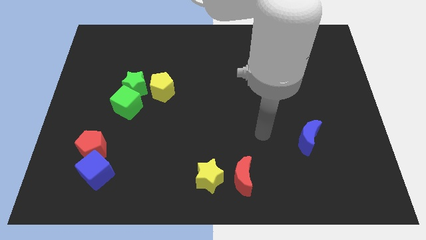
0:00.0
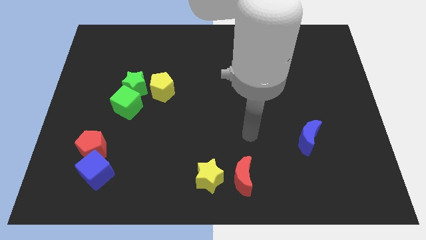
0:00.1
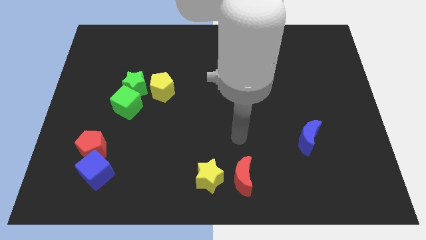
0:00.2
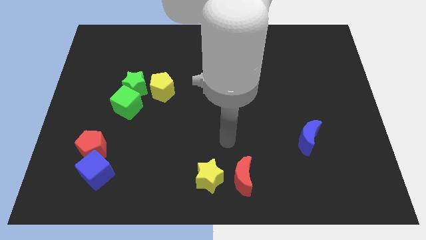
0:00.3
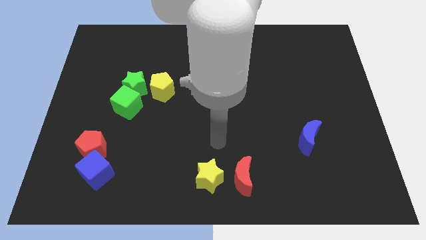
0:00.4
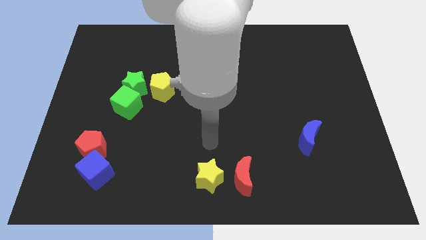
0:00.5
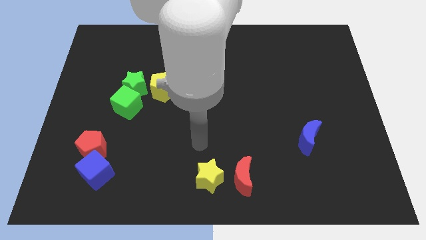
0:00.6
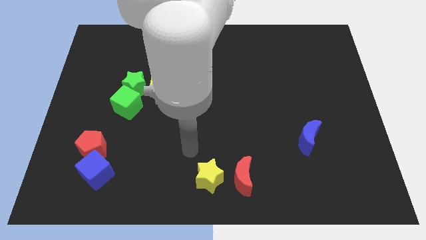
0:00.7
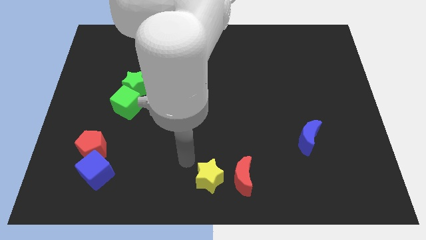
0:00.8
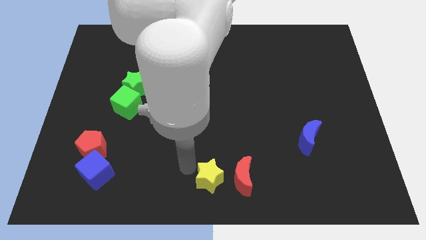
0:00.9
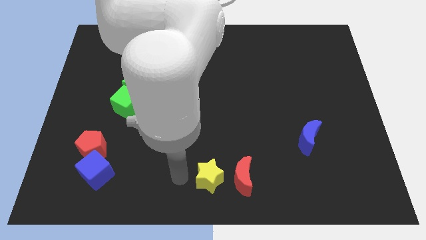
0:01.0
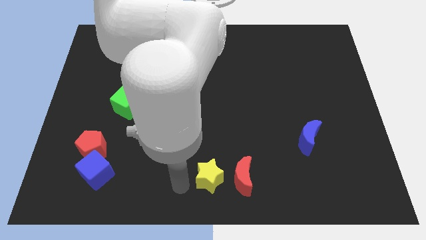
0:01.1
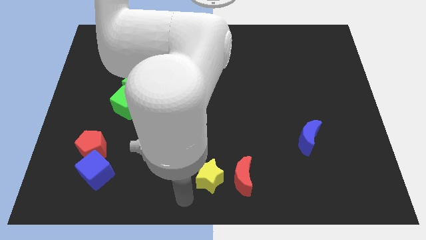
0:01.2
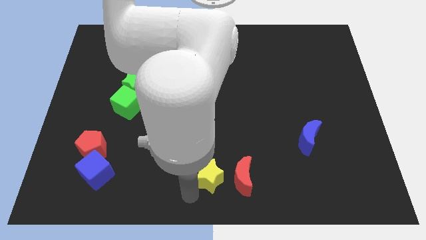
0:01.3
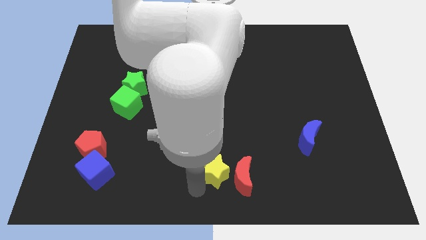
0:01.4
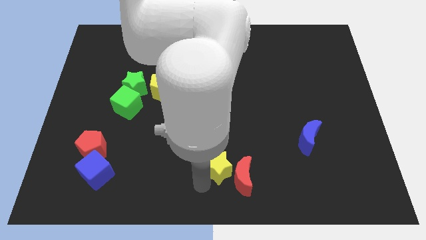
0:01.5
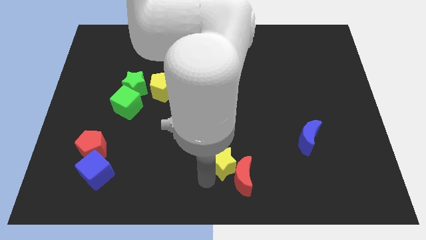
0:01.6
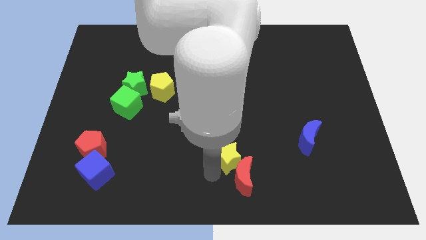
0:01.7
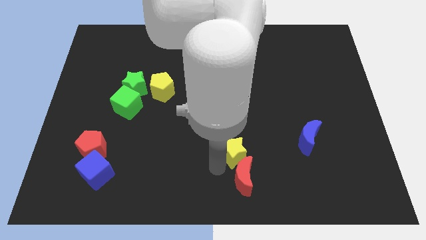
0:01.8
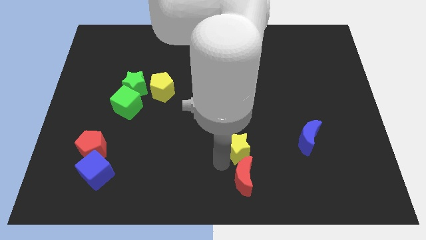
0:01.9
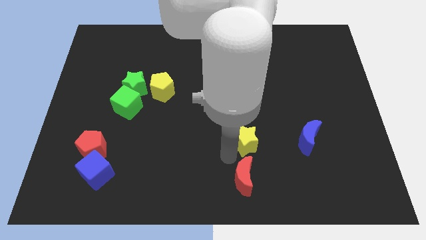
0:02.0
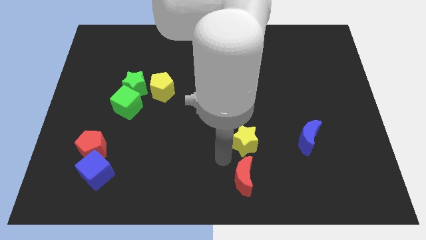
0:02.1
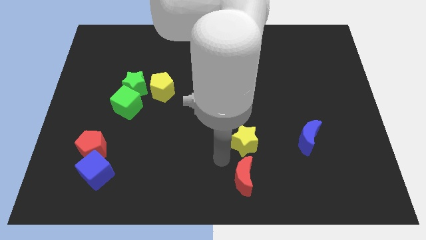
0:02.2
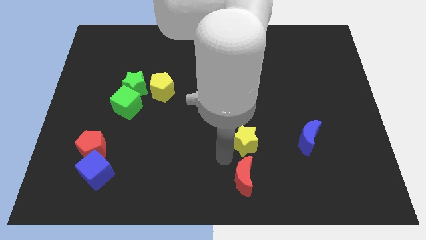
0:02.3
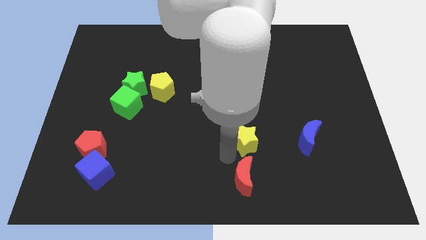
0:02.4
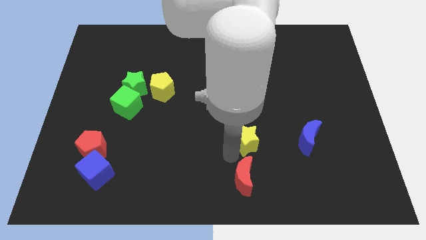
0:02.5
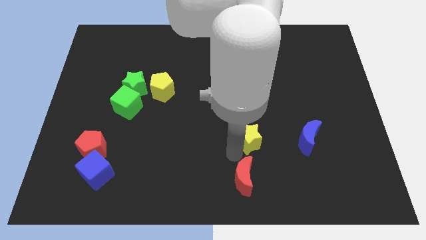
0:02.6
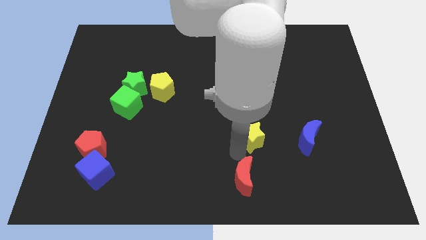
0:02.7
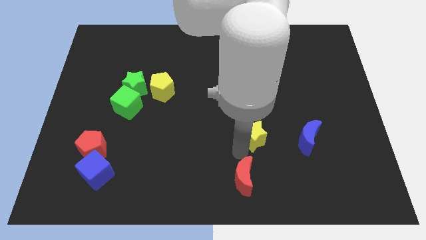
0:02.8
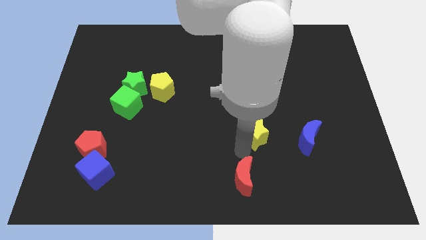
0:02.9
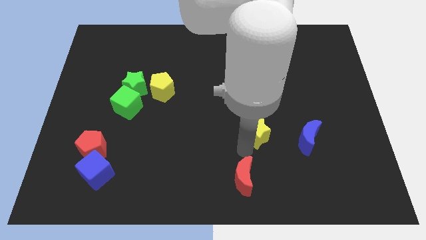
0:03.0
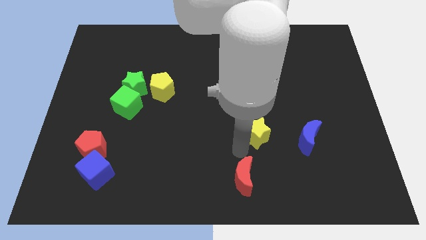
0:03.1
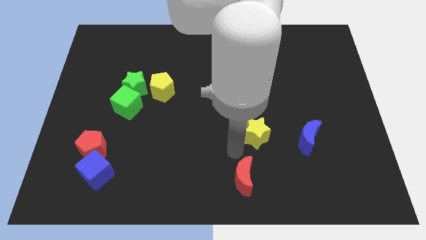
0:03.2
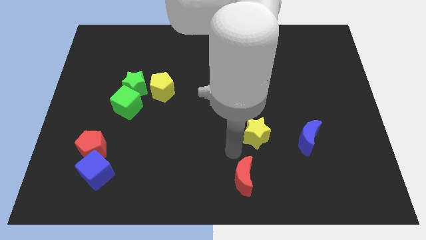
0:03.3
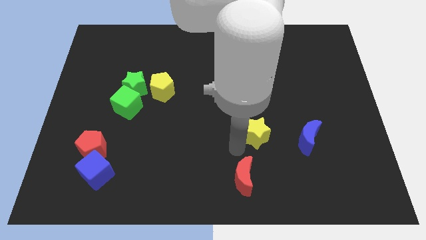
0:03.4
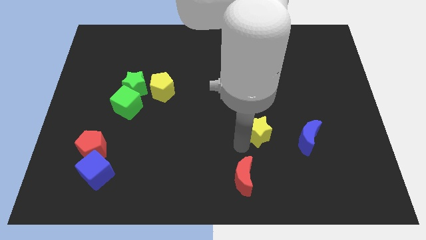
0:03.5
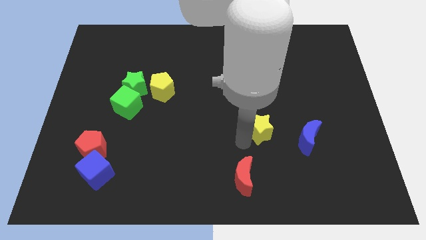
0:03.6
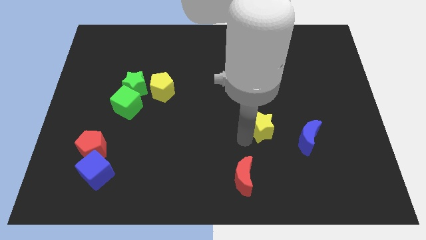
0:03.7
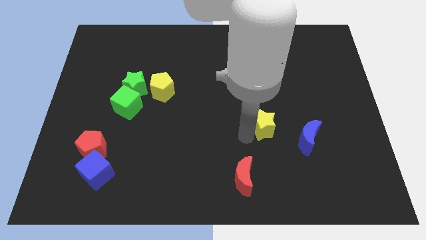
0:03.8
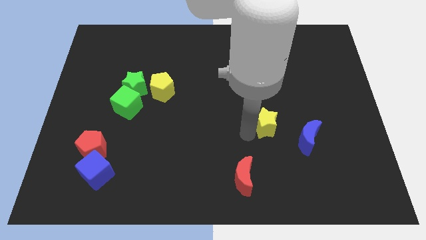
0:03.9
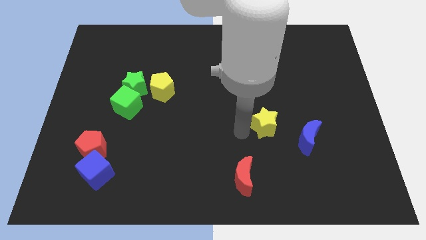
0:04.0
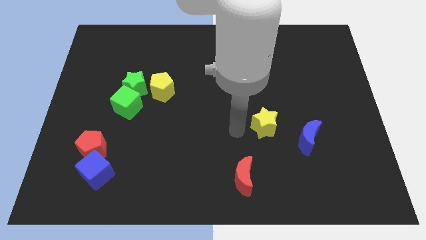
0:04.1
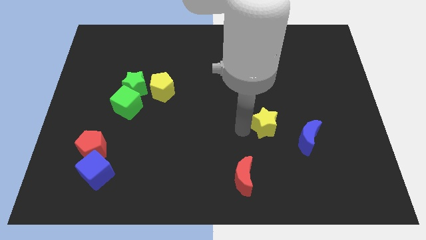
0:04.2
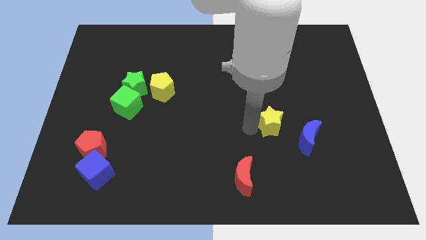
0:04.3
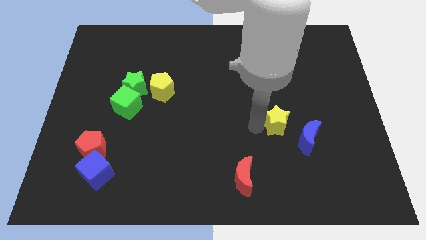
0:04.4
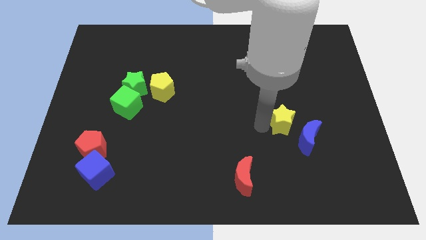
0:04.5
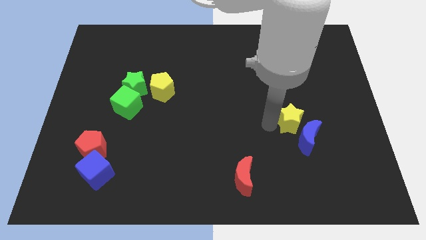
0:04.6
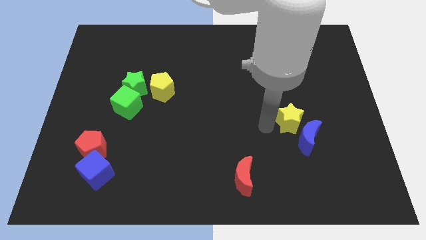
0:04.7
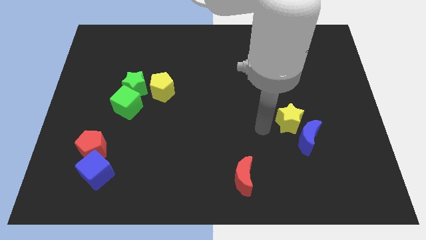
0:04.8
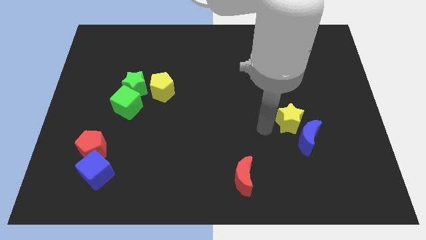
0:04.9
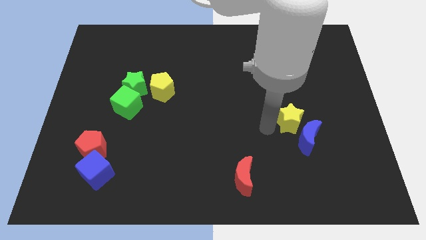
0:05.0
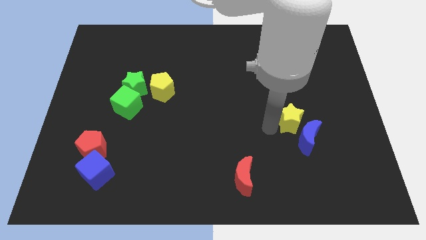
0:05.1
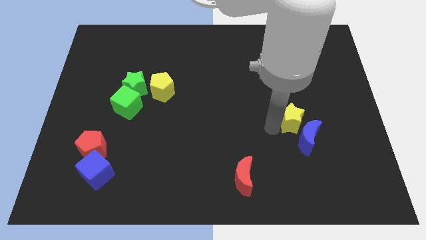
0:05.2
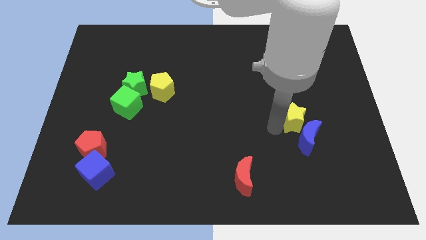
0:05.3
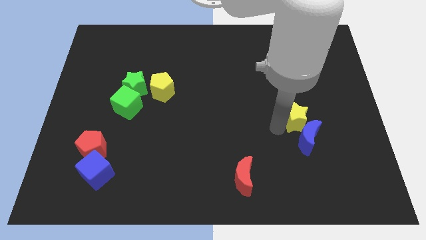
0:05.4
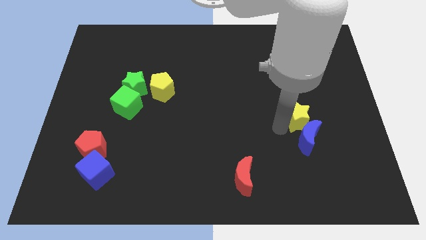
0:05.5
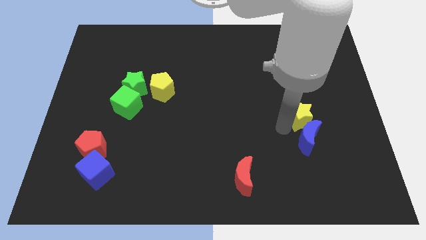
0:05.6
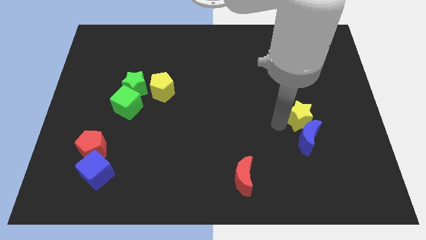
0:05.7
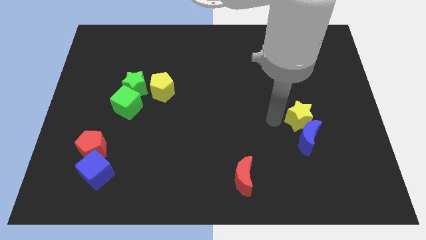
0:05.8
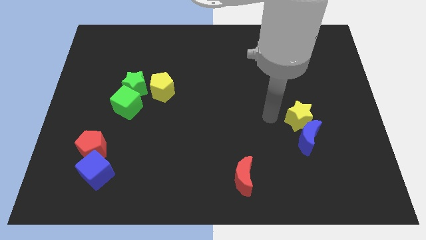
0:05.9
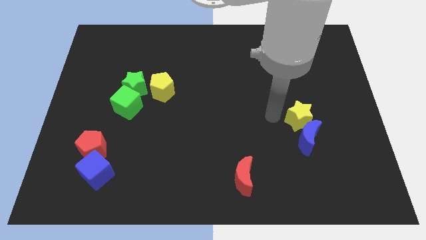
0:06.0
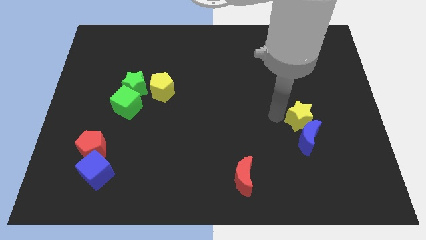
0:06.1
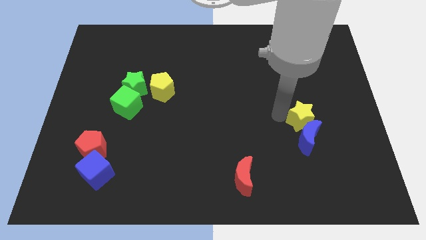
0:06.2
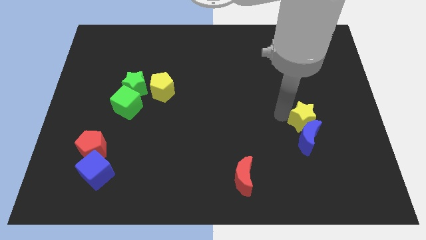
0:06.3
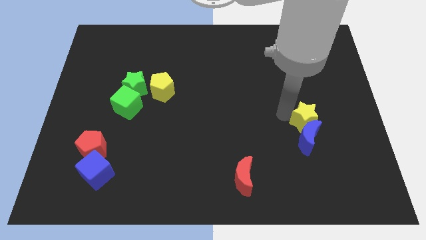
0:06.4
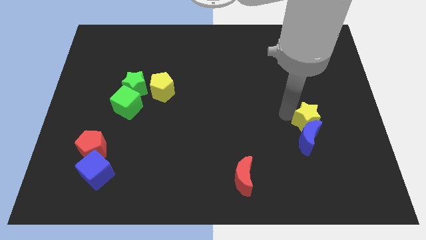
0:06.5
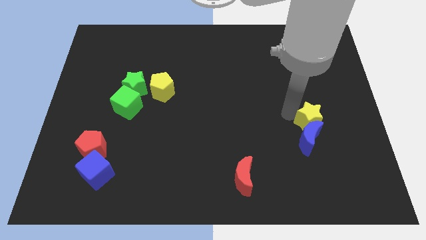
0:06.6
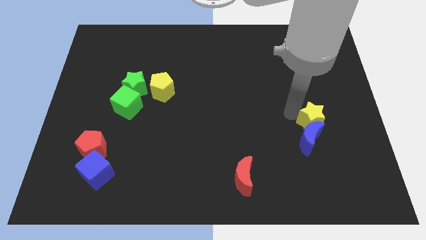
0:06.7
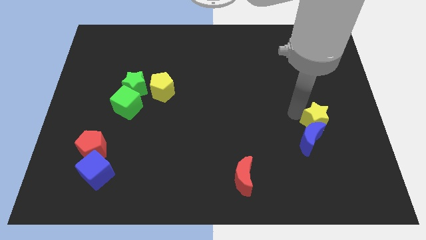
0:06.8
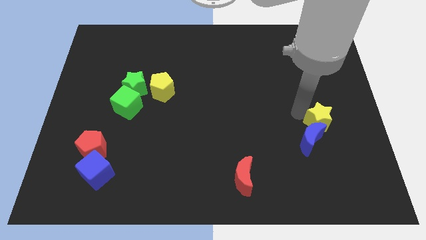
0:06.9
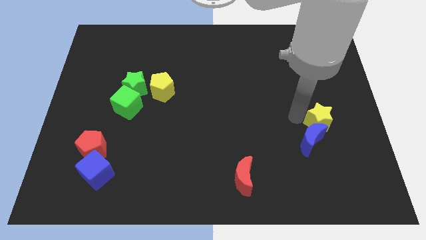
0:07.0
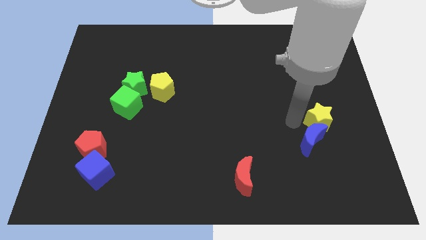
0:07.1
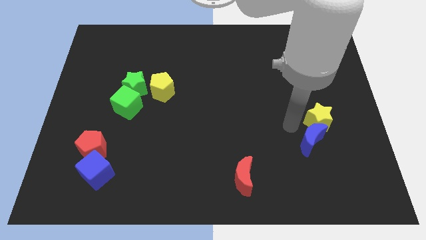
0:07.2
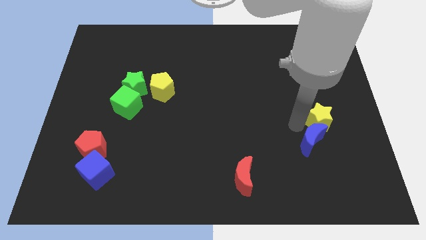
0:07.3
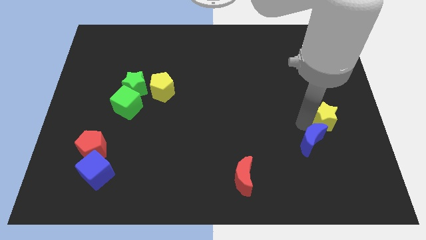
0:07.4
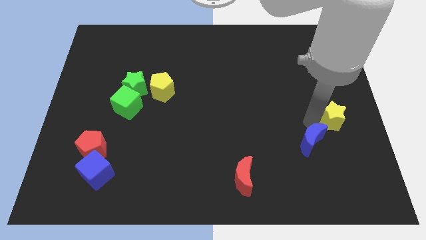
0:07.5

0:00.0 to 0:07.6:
put the yellow star to the right side of the board
